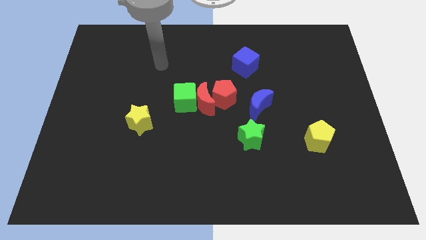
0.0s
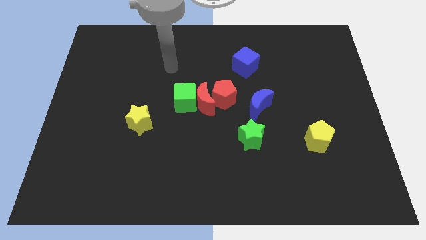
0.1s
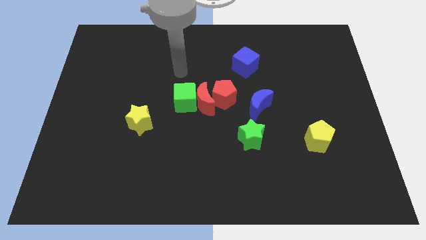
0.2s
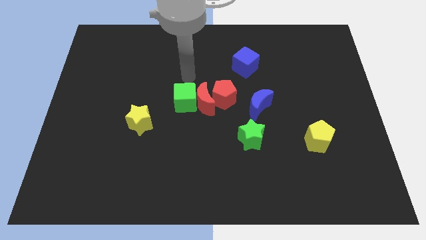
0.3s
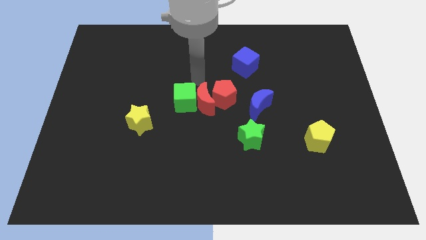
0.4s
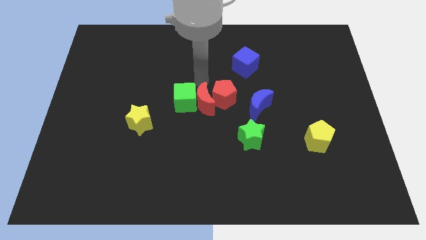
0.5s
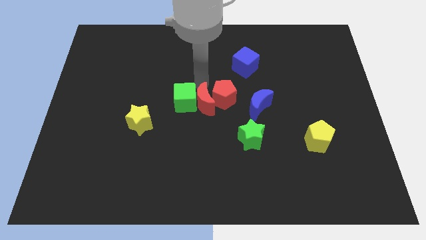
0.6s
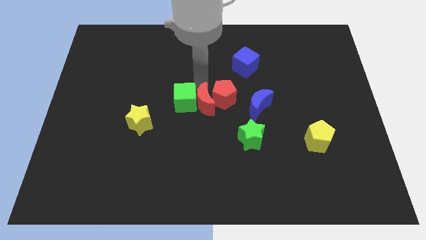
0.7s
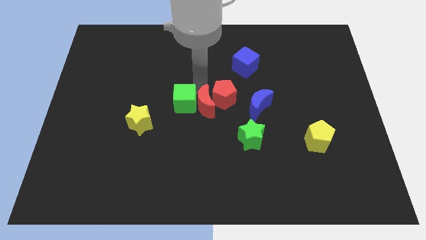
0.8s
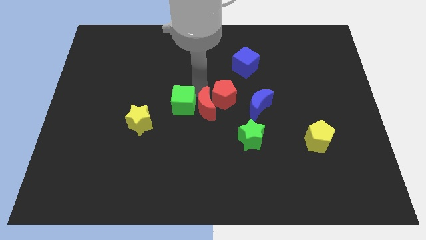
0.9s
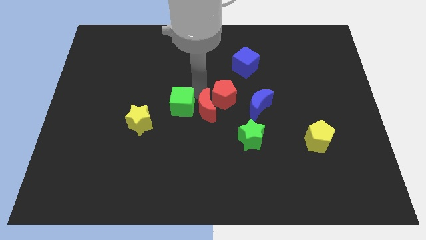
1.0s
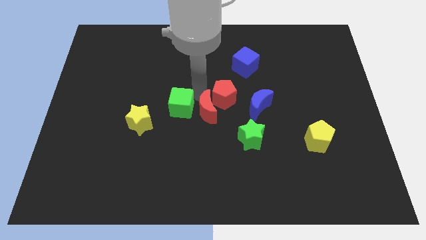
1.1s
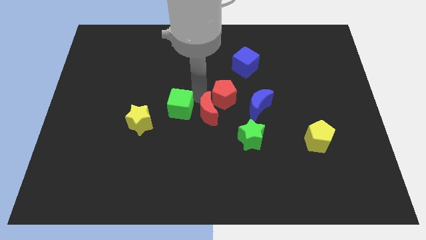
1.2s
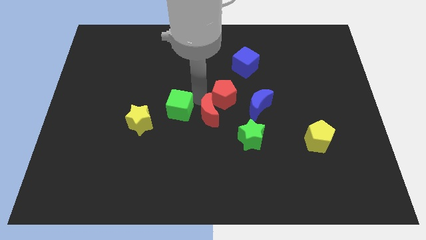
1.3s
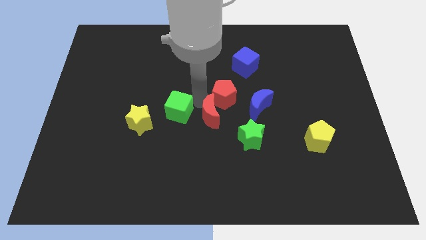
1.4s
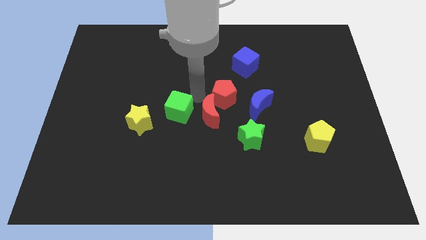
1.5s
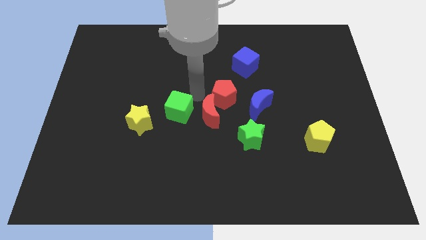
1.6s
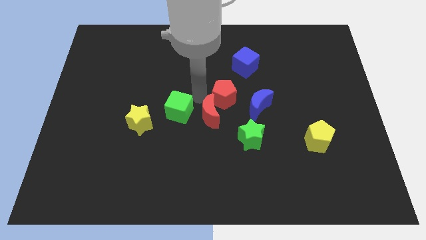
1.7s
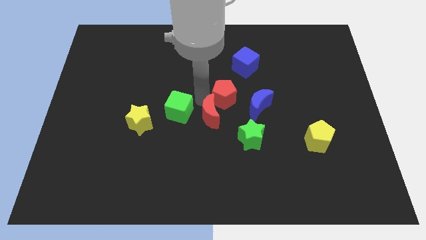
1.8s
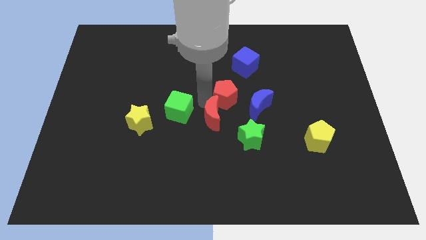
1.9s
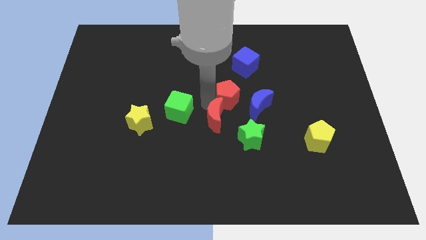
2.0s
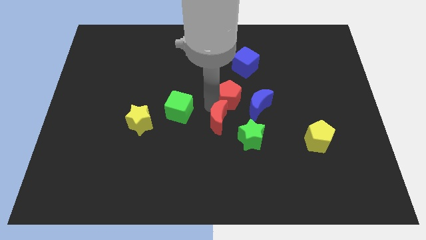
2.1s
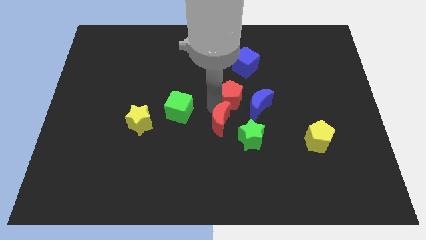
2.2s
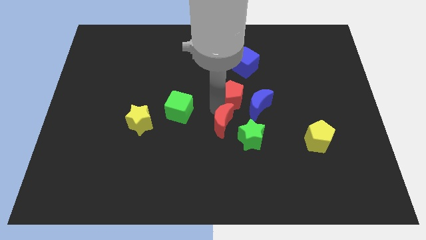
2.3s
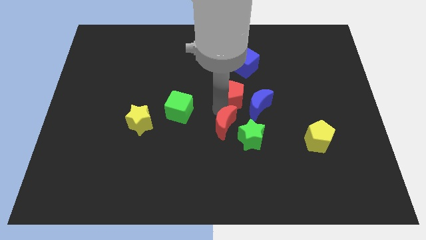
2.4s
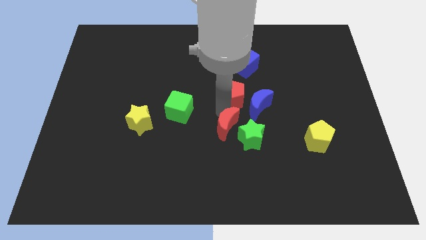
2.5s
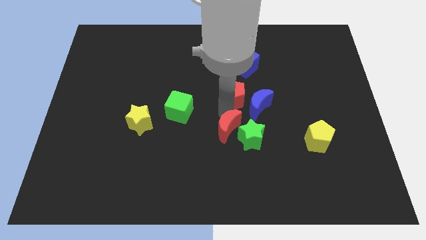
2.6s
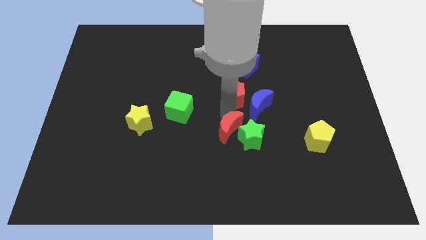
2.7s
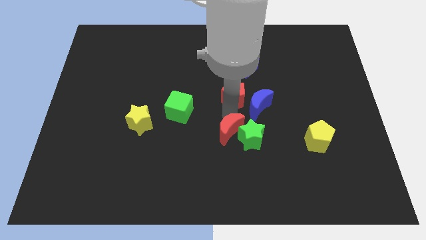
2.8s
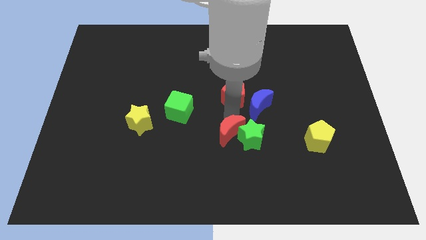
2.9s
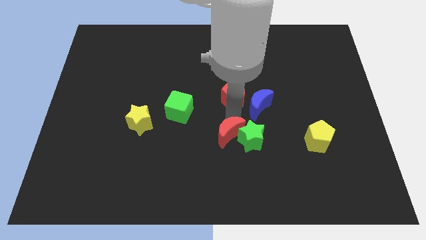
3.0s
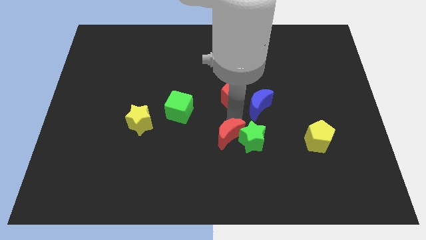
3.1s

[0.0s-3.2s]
separate the red moon from the green cube and red pentagon

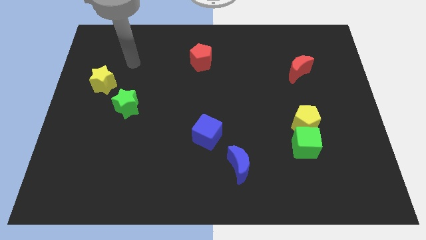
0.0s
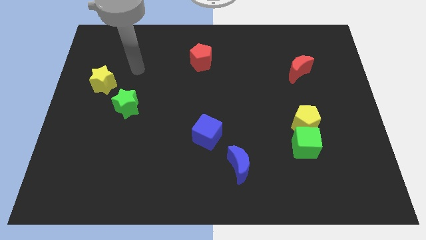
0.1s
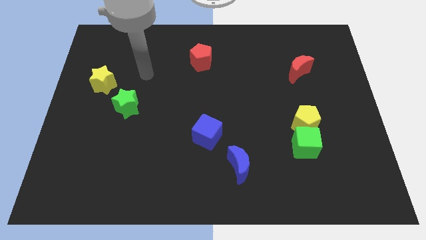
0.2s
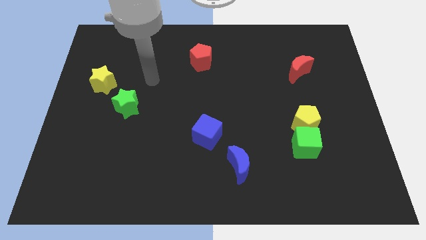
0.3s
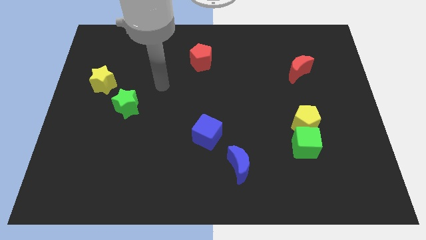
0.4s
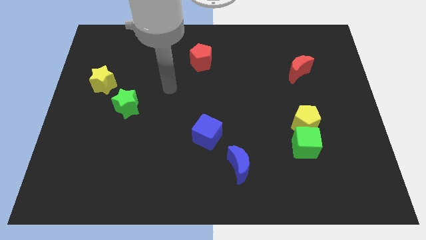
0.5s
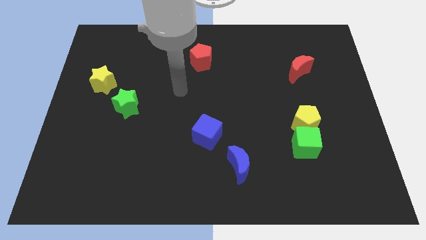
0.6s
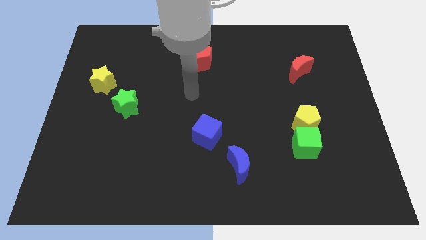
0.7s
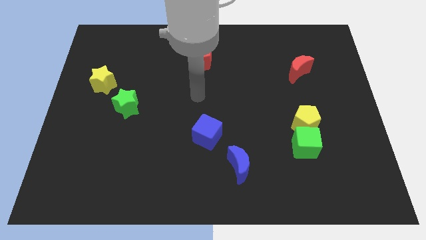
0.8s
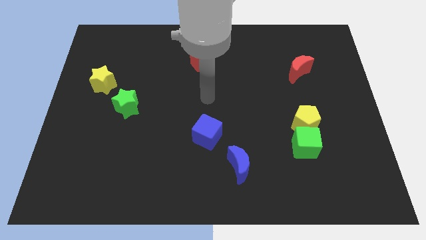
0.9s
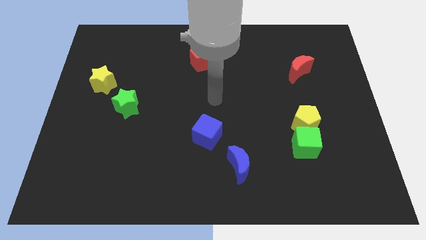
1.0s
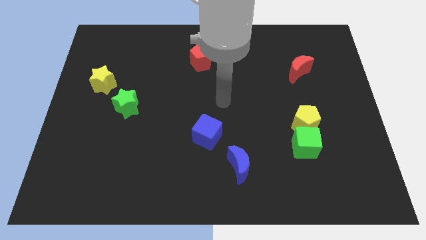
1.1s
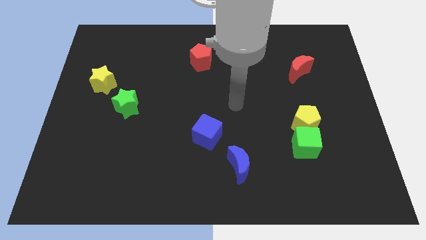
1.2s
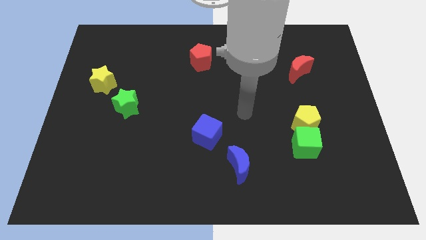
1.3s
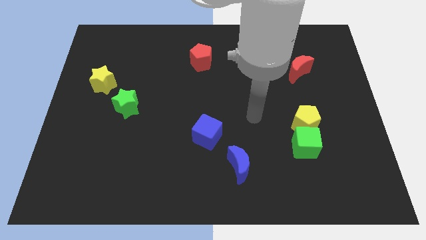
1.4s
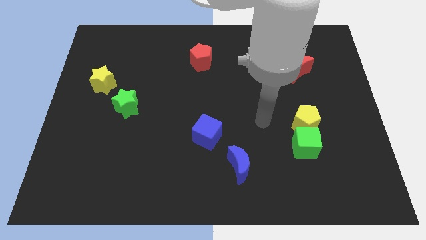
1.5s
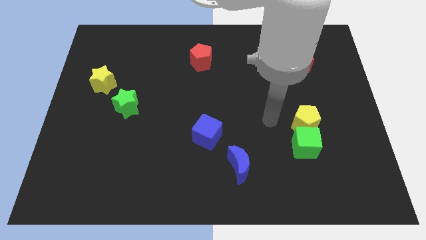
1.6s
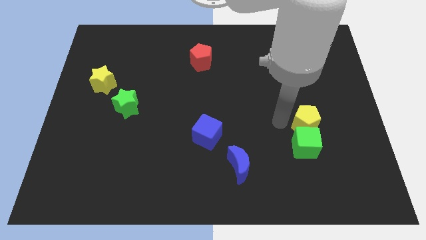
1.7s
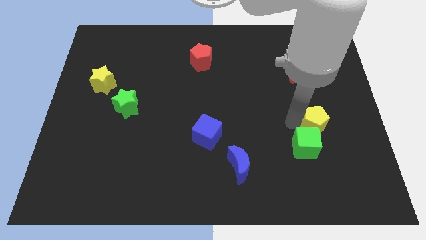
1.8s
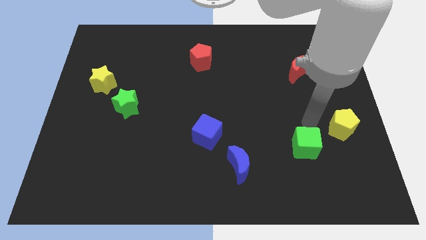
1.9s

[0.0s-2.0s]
pull the green cube apart from the yellow pentagon

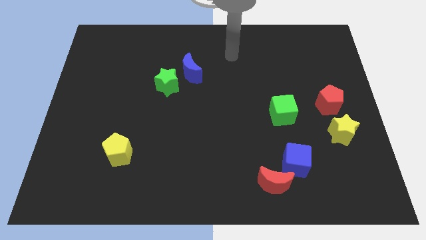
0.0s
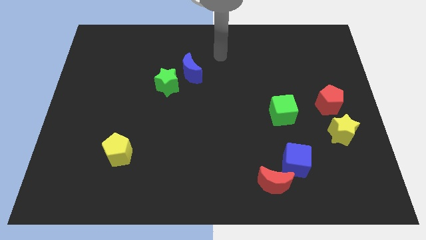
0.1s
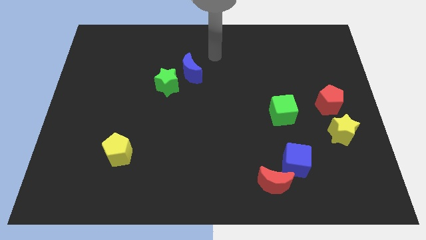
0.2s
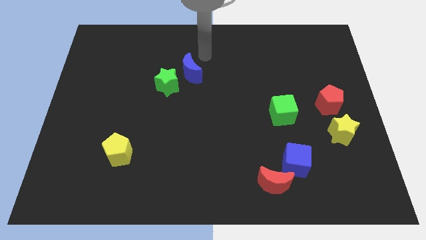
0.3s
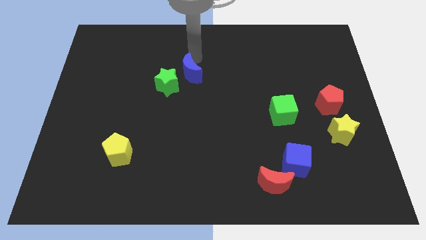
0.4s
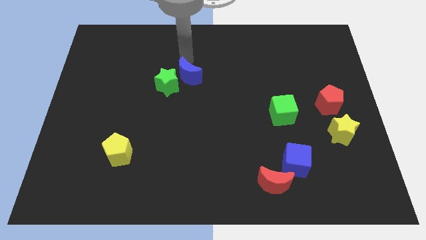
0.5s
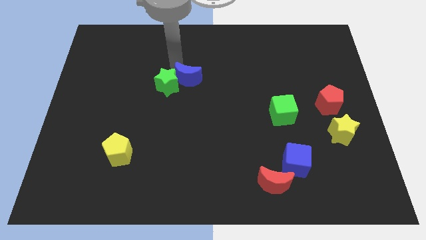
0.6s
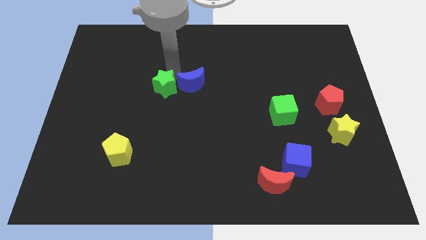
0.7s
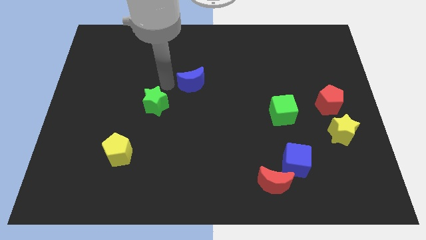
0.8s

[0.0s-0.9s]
separate the blue moon from the green star

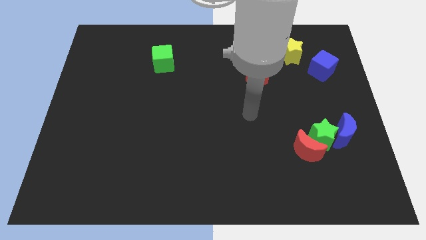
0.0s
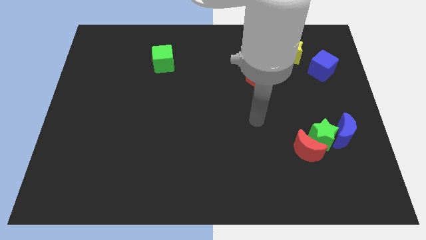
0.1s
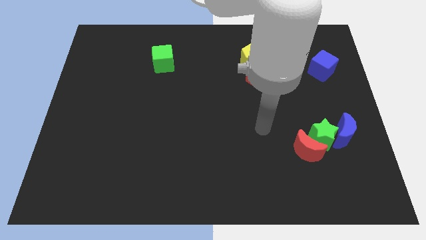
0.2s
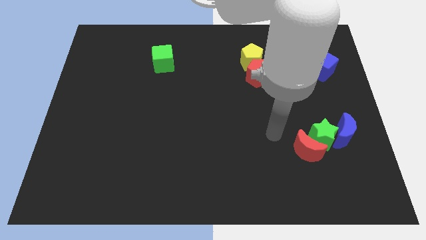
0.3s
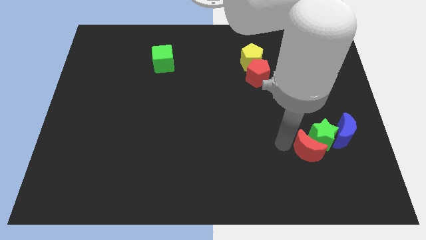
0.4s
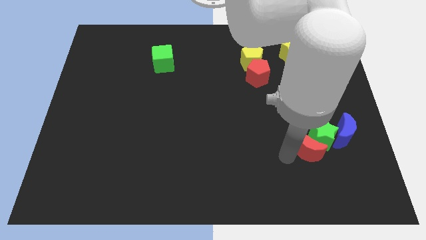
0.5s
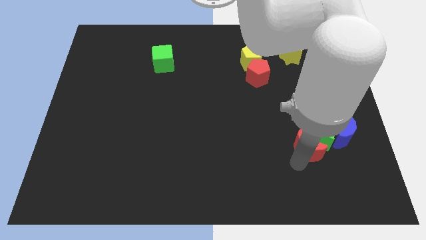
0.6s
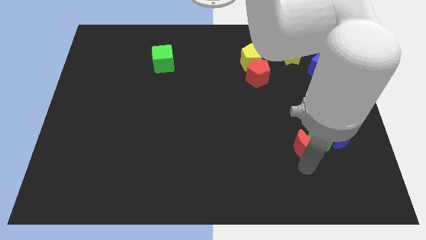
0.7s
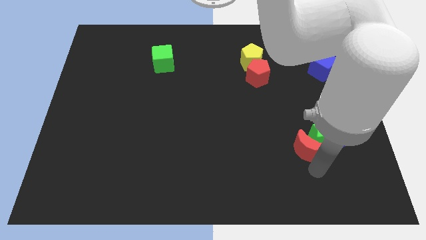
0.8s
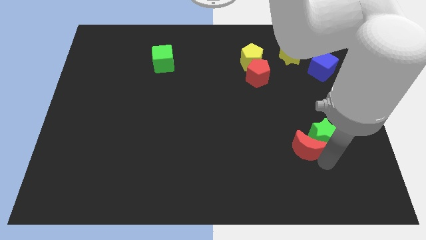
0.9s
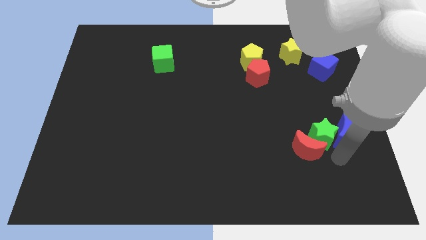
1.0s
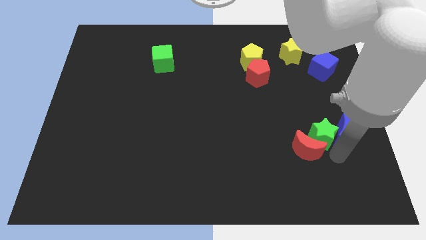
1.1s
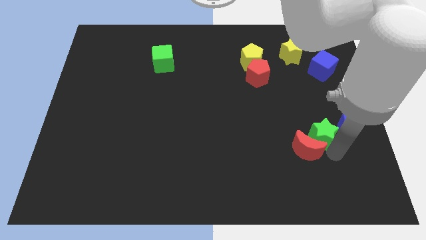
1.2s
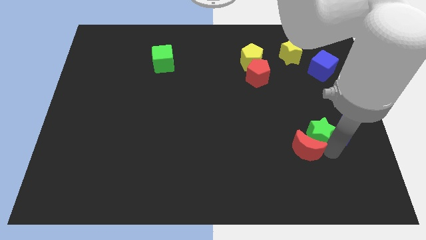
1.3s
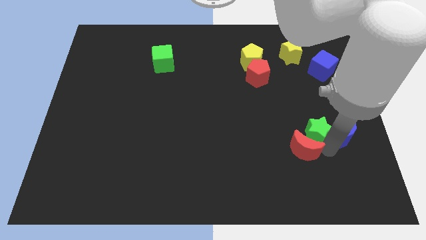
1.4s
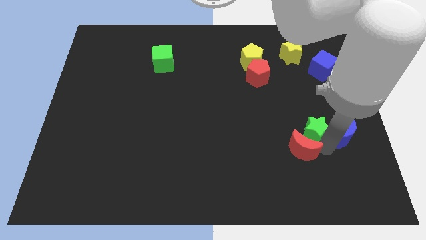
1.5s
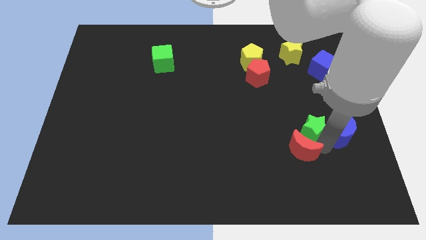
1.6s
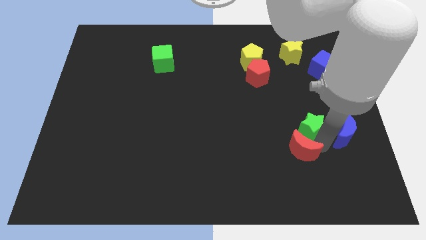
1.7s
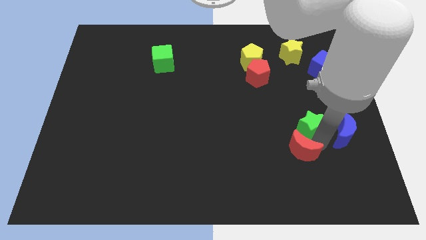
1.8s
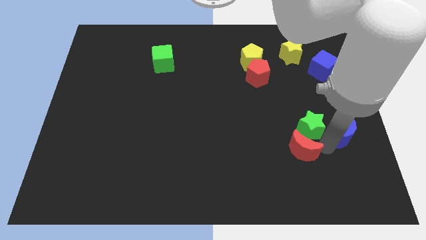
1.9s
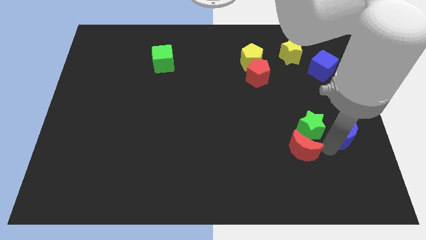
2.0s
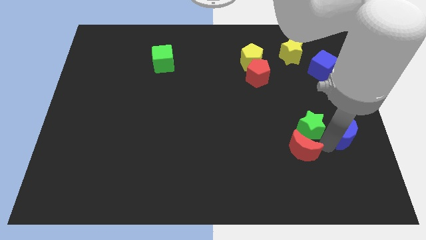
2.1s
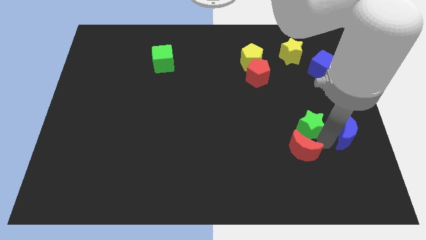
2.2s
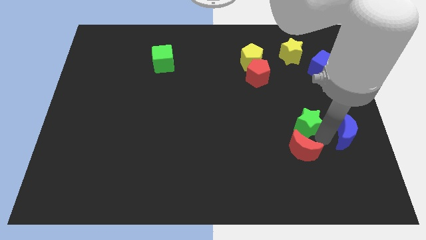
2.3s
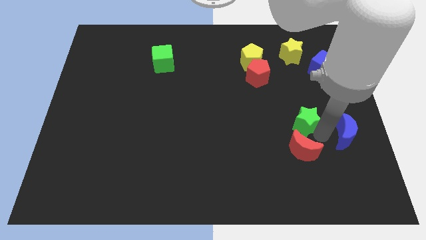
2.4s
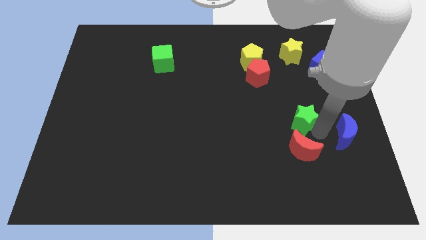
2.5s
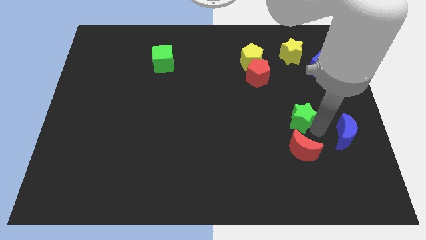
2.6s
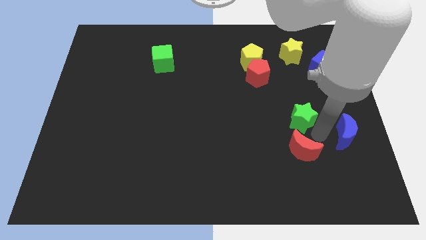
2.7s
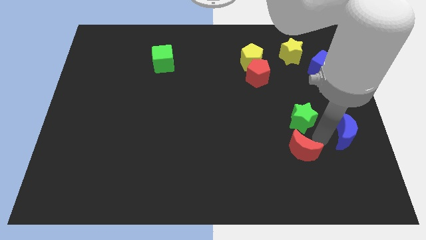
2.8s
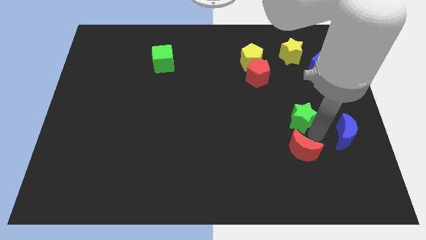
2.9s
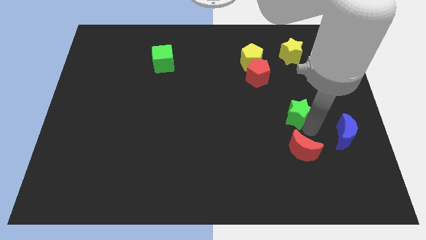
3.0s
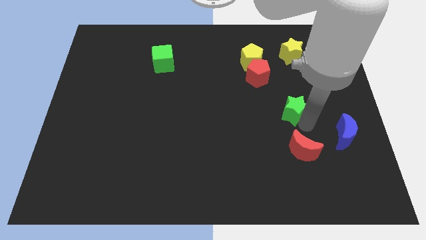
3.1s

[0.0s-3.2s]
pull the green star apart from the red moon and blue moon
